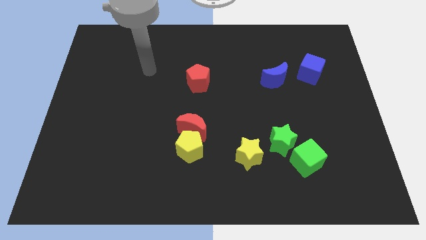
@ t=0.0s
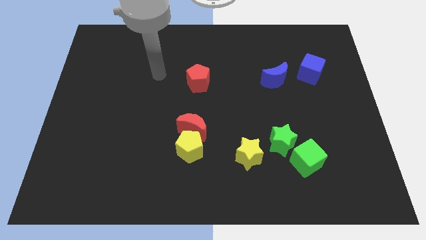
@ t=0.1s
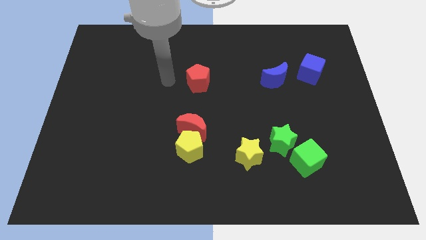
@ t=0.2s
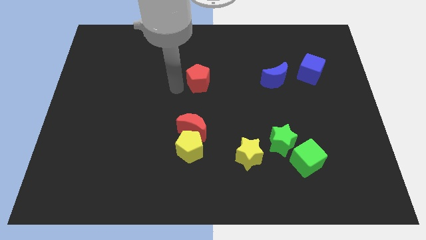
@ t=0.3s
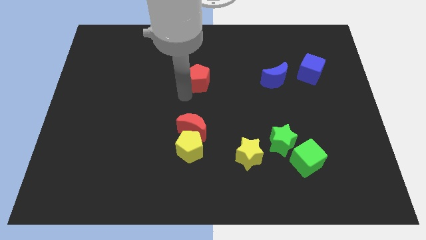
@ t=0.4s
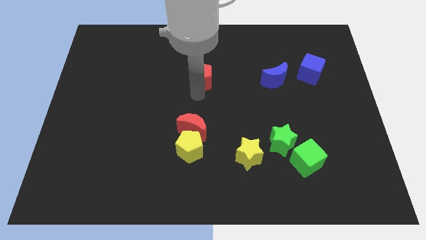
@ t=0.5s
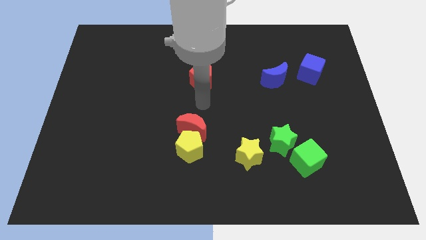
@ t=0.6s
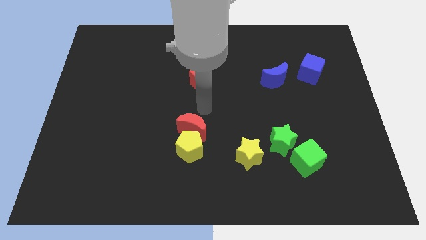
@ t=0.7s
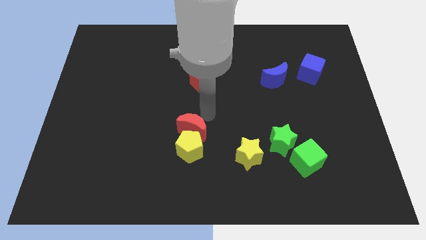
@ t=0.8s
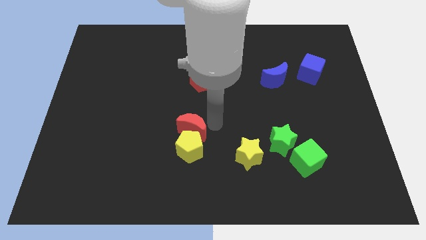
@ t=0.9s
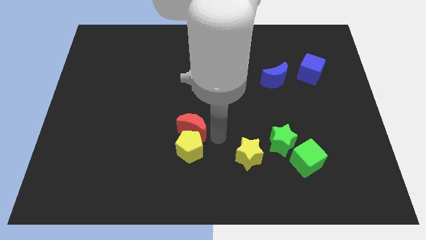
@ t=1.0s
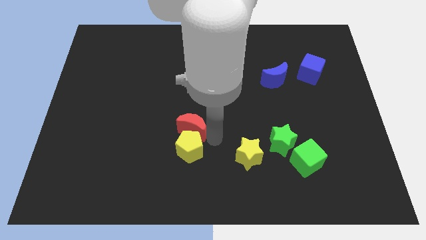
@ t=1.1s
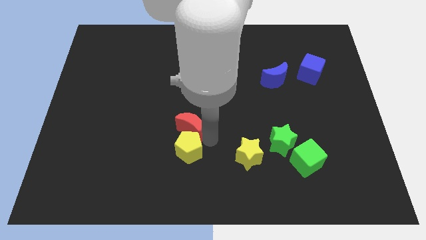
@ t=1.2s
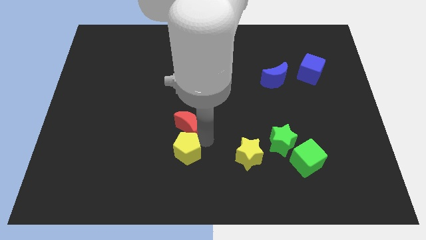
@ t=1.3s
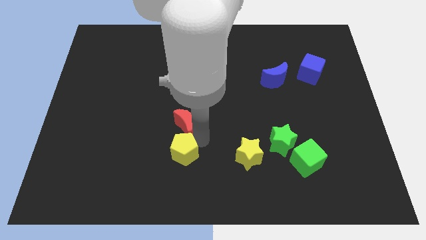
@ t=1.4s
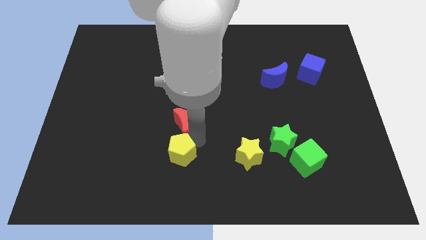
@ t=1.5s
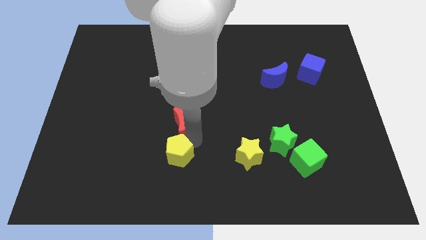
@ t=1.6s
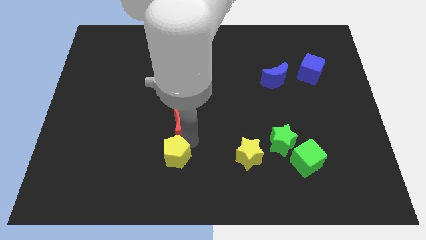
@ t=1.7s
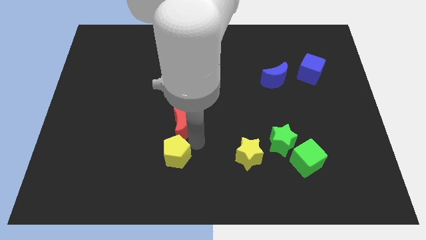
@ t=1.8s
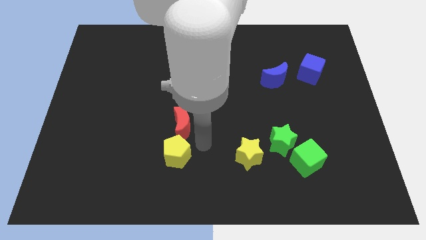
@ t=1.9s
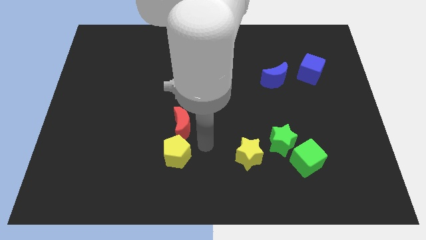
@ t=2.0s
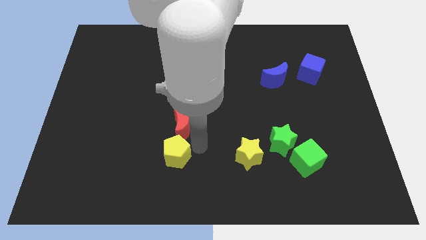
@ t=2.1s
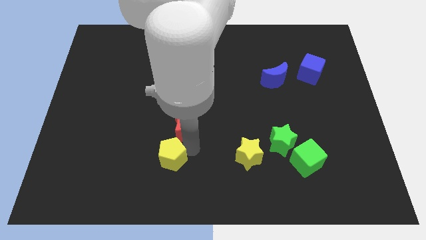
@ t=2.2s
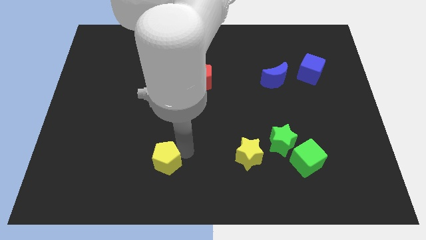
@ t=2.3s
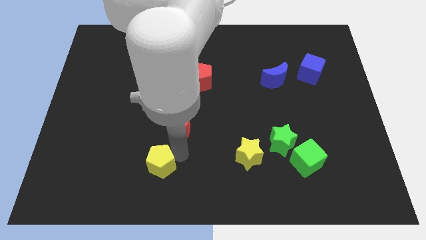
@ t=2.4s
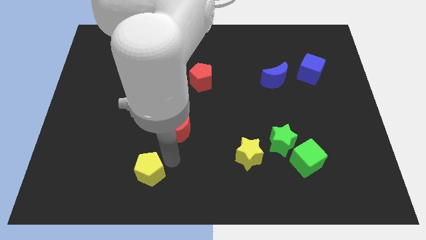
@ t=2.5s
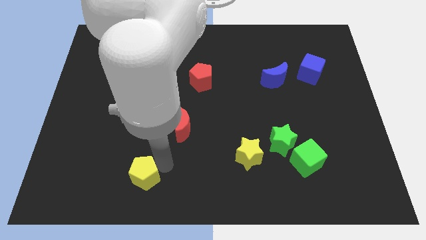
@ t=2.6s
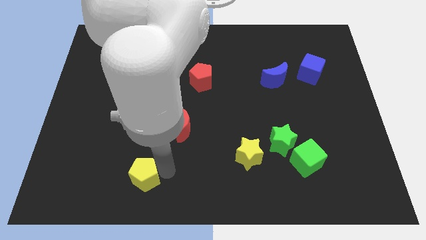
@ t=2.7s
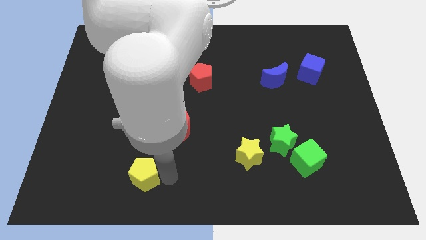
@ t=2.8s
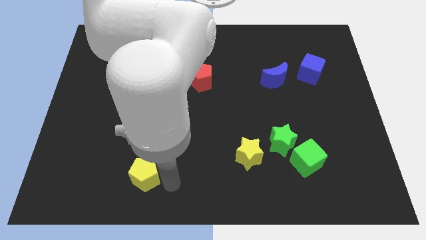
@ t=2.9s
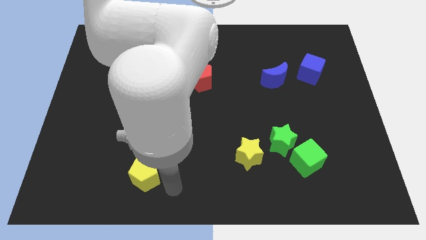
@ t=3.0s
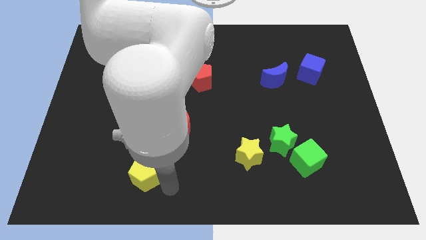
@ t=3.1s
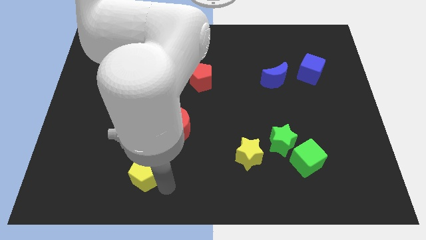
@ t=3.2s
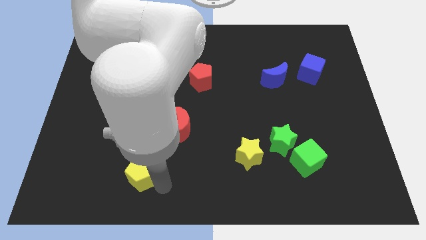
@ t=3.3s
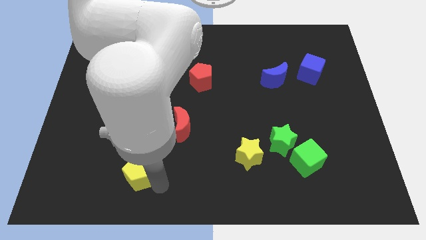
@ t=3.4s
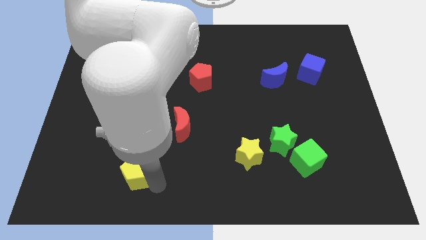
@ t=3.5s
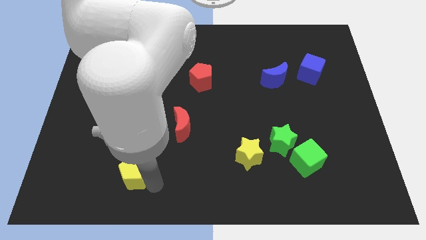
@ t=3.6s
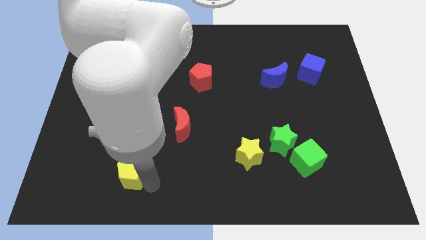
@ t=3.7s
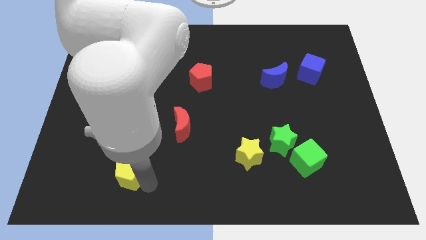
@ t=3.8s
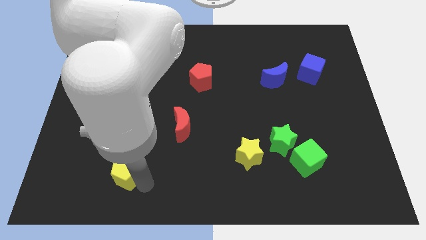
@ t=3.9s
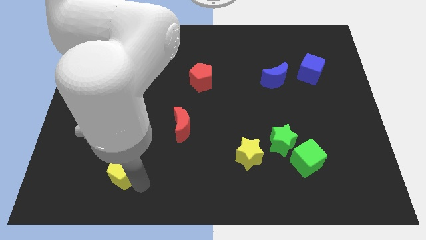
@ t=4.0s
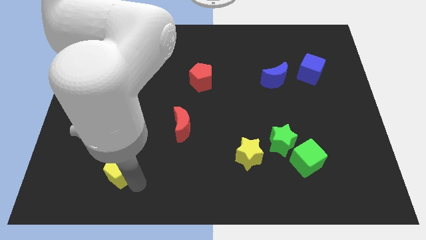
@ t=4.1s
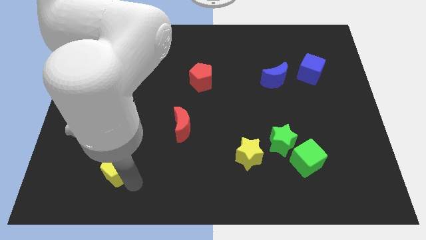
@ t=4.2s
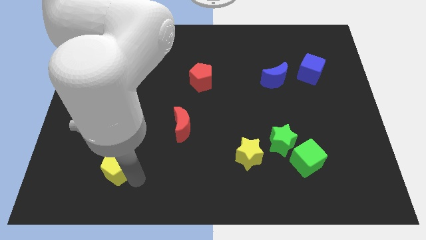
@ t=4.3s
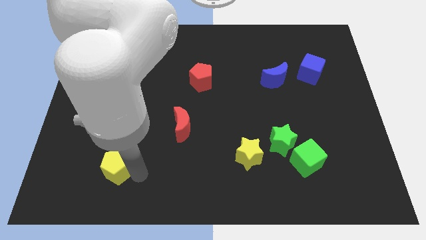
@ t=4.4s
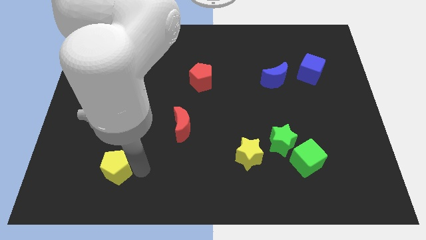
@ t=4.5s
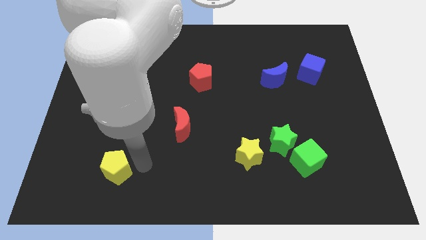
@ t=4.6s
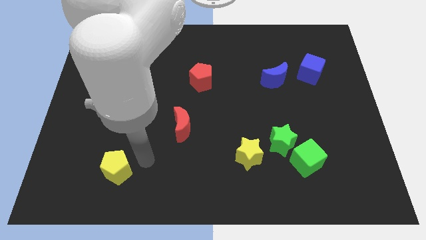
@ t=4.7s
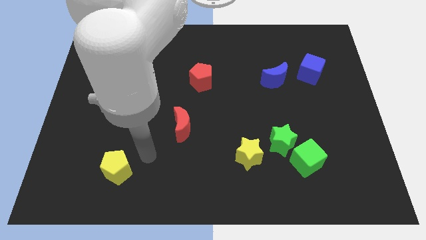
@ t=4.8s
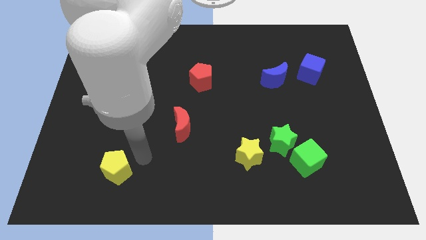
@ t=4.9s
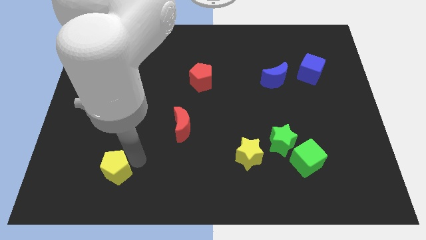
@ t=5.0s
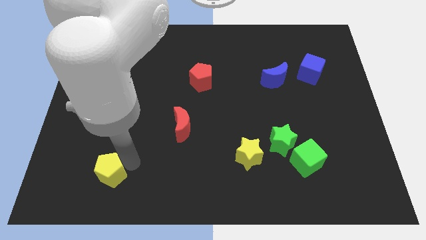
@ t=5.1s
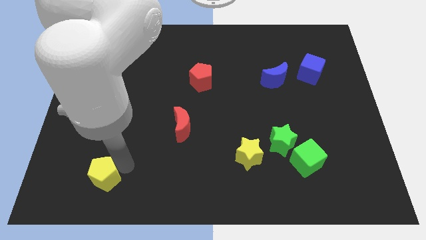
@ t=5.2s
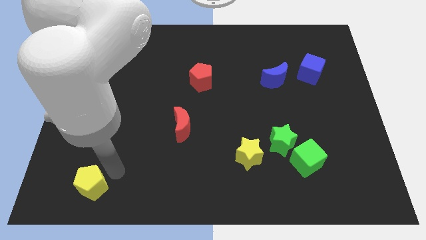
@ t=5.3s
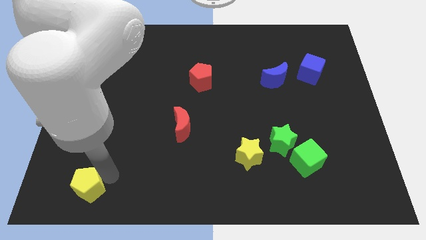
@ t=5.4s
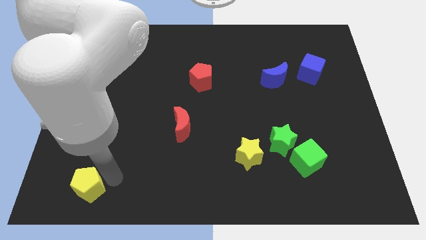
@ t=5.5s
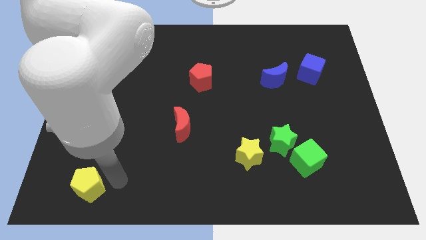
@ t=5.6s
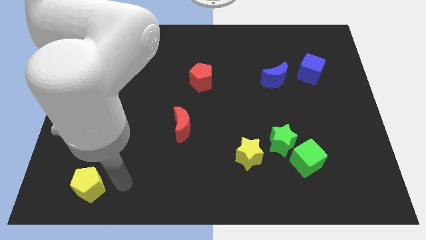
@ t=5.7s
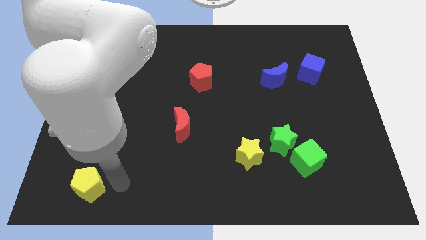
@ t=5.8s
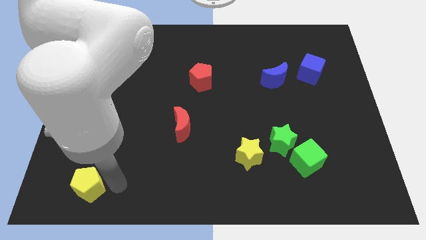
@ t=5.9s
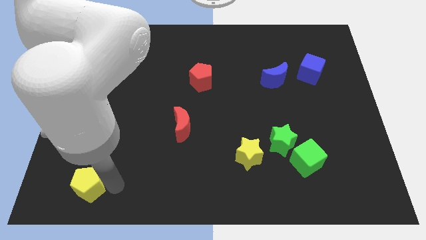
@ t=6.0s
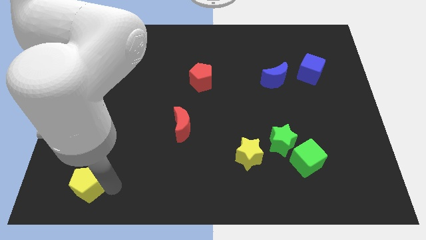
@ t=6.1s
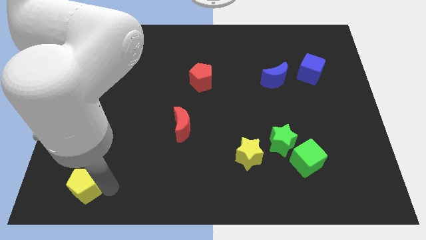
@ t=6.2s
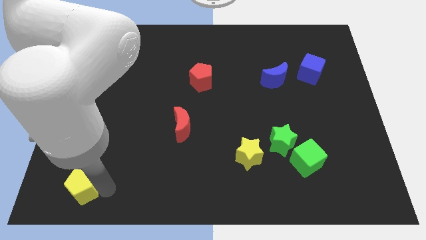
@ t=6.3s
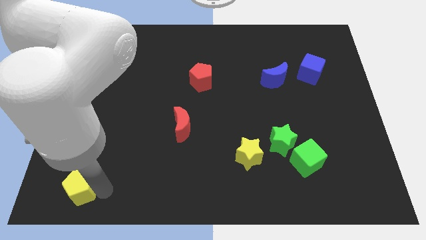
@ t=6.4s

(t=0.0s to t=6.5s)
push the yellow pentagon to the bottom left corner
